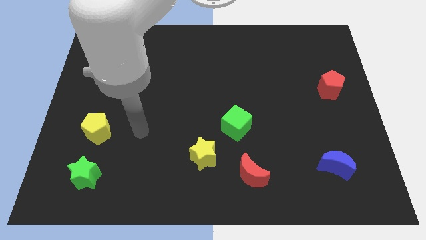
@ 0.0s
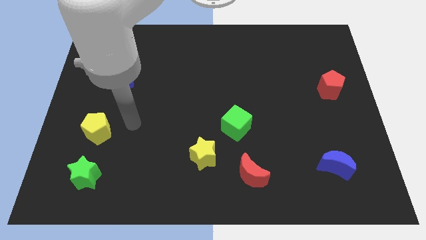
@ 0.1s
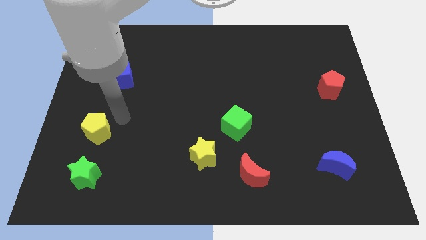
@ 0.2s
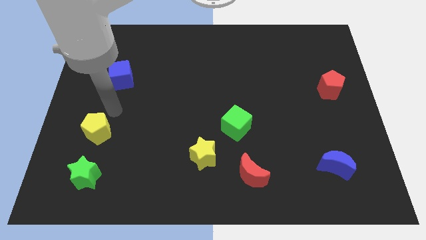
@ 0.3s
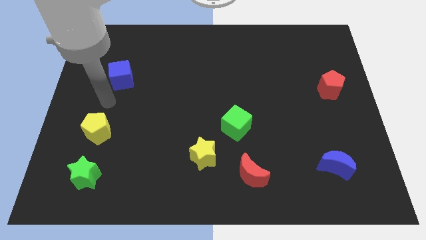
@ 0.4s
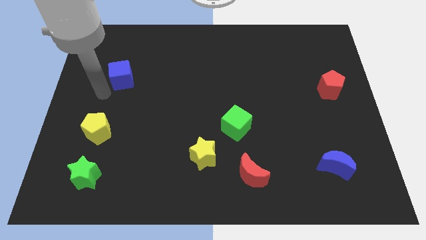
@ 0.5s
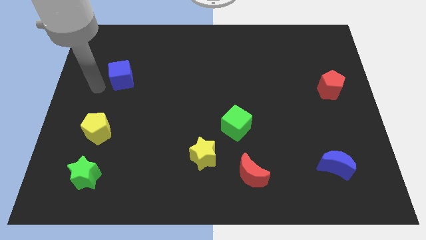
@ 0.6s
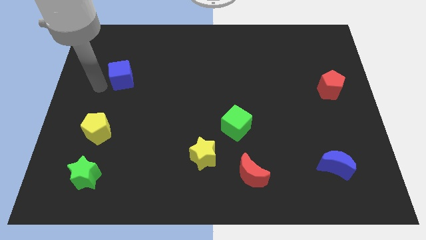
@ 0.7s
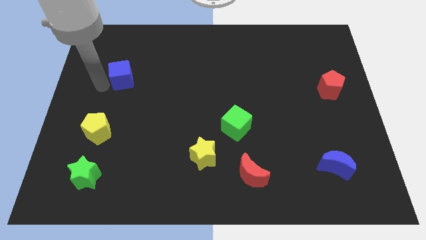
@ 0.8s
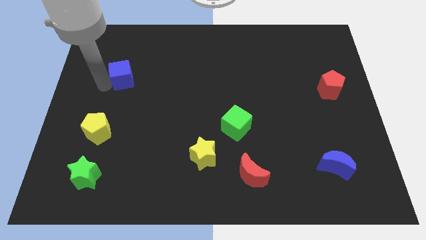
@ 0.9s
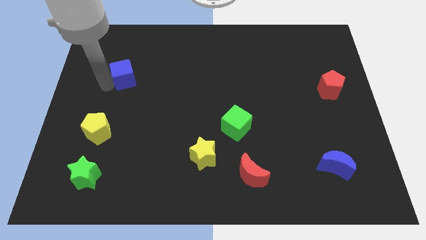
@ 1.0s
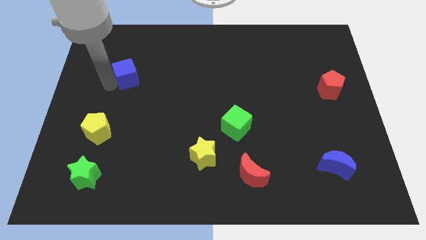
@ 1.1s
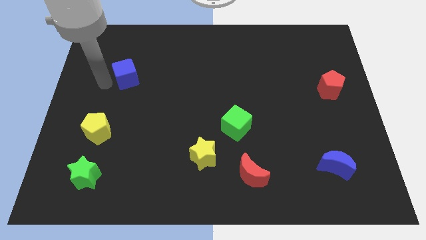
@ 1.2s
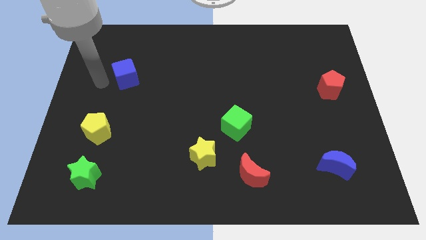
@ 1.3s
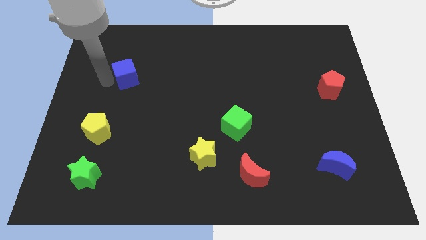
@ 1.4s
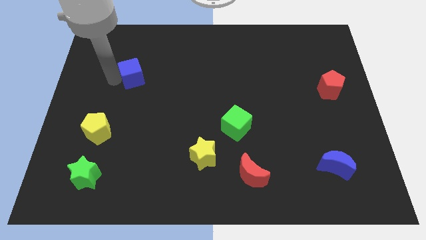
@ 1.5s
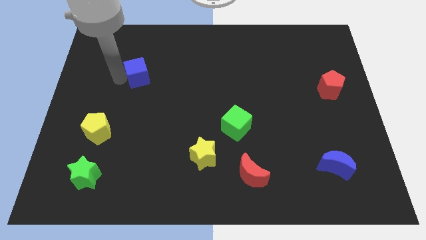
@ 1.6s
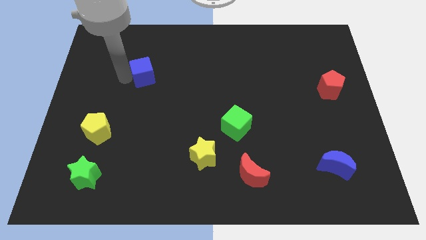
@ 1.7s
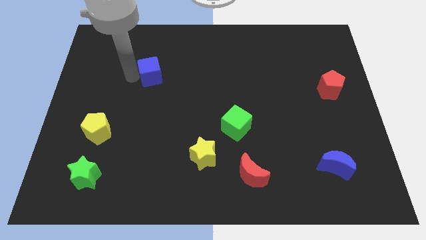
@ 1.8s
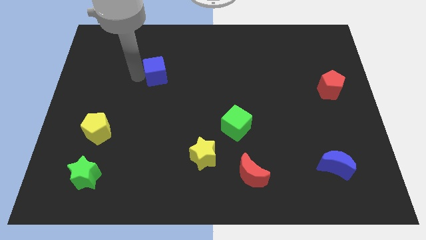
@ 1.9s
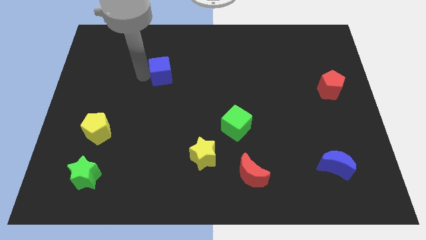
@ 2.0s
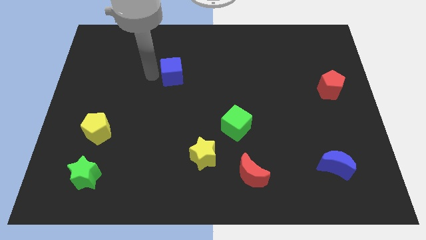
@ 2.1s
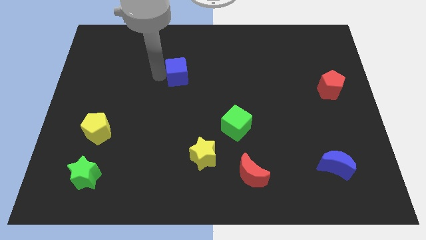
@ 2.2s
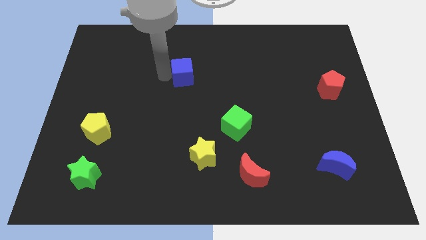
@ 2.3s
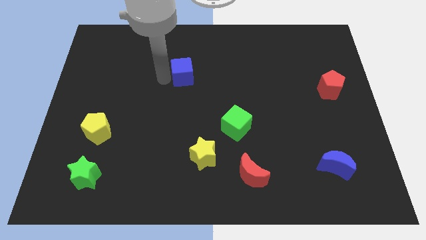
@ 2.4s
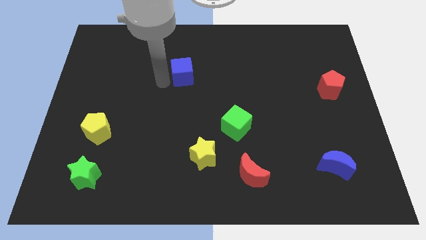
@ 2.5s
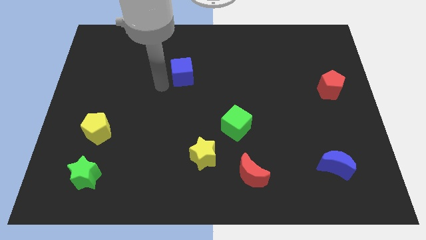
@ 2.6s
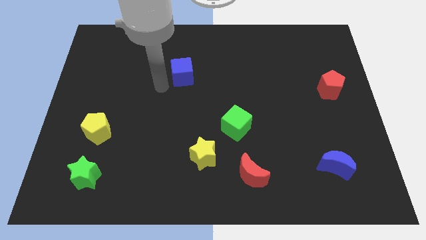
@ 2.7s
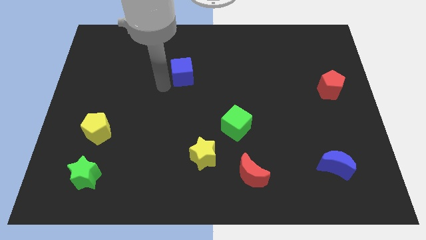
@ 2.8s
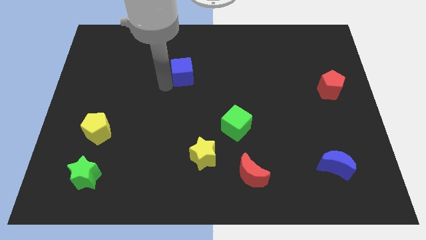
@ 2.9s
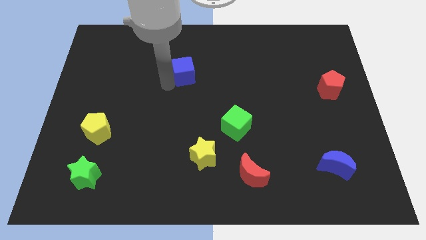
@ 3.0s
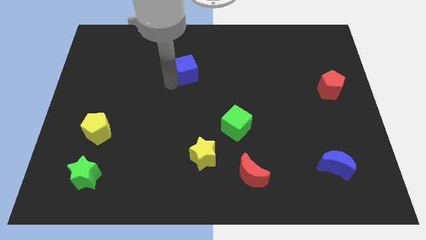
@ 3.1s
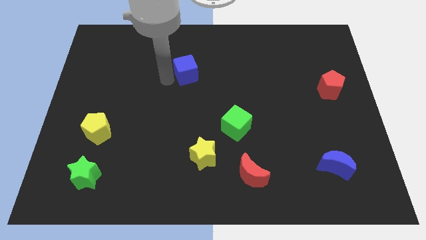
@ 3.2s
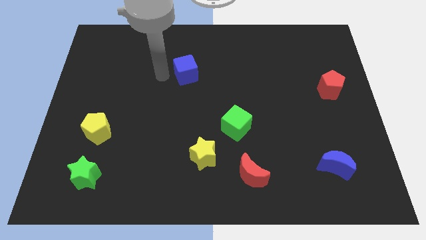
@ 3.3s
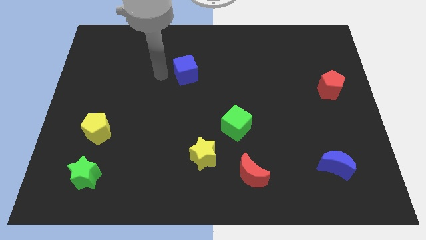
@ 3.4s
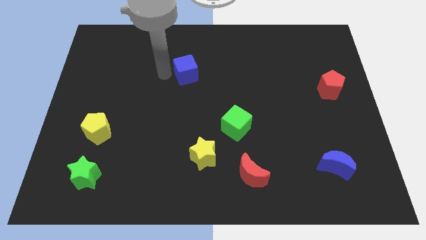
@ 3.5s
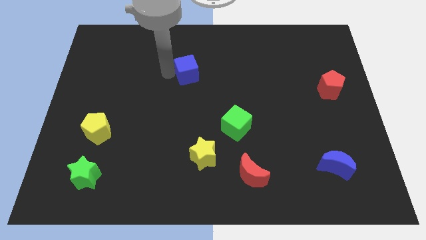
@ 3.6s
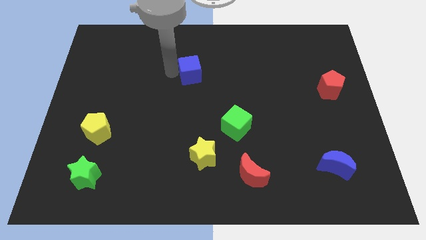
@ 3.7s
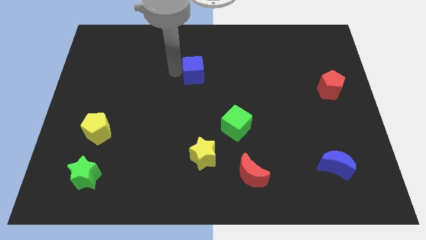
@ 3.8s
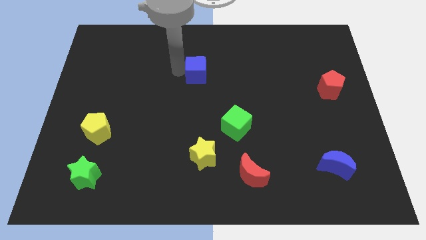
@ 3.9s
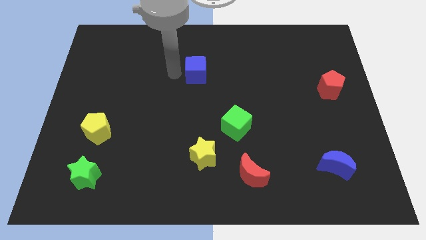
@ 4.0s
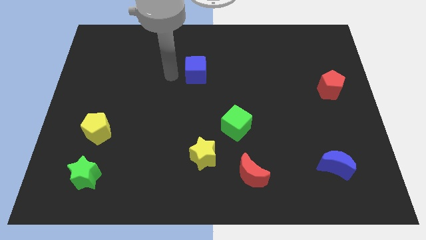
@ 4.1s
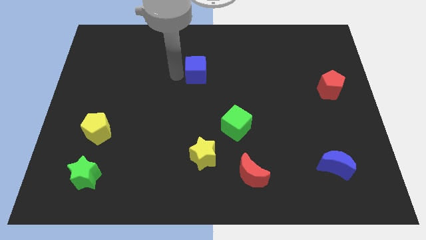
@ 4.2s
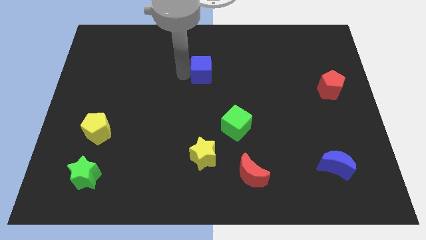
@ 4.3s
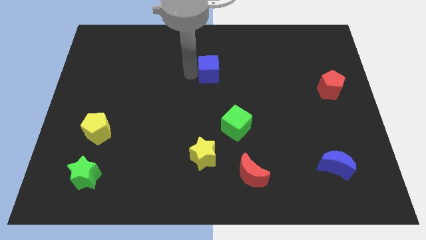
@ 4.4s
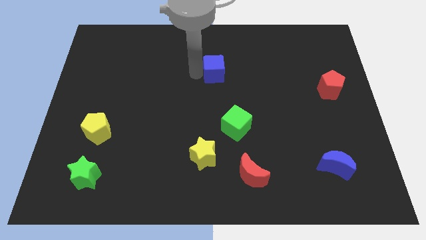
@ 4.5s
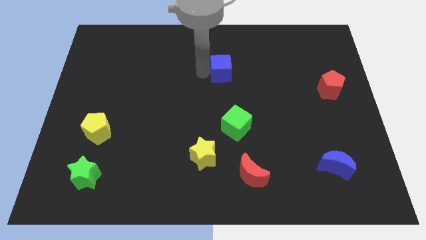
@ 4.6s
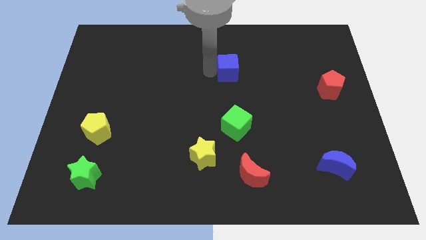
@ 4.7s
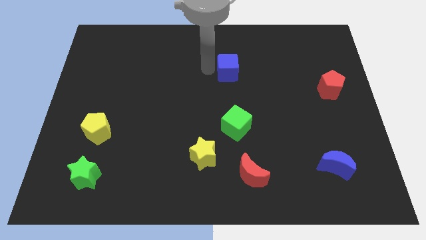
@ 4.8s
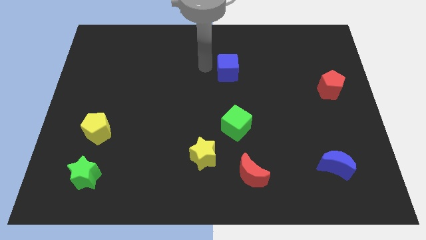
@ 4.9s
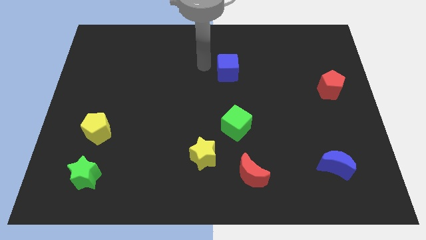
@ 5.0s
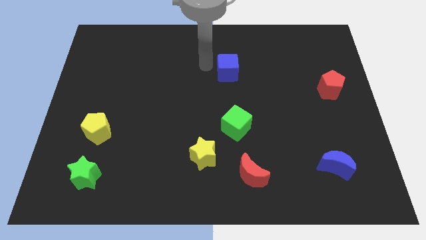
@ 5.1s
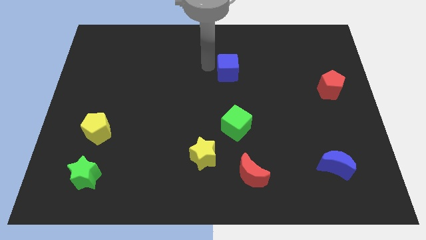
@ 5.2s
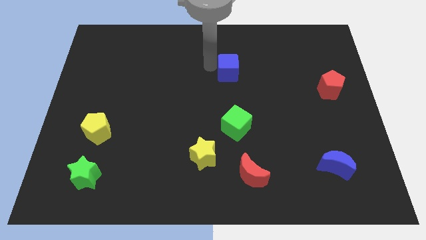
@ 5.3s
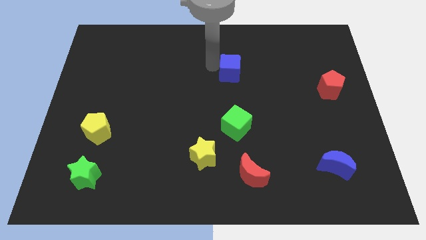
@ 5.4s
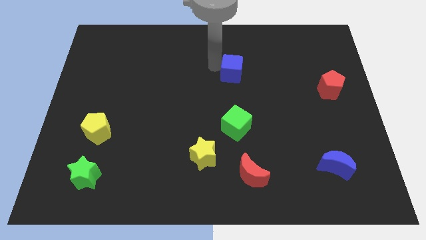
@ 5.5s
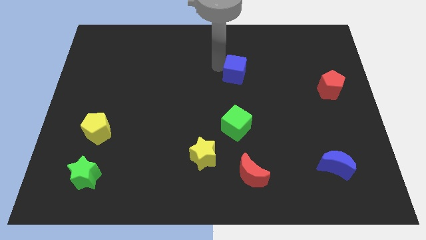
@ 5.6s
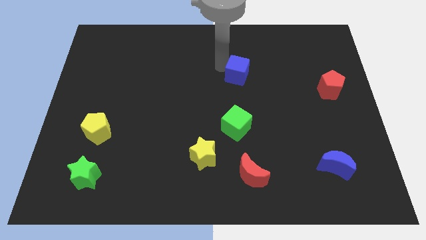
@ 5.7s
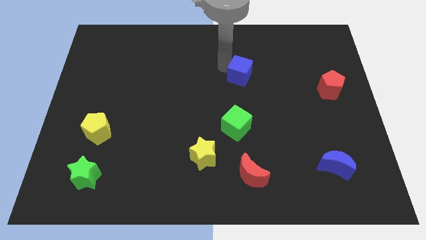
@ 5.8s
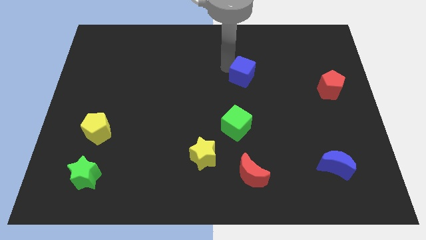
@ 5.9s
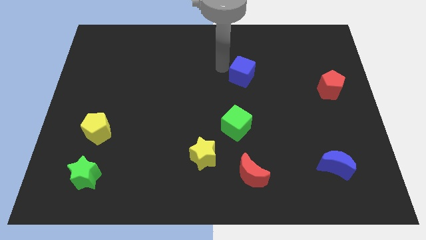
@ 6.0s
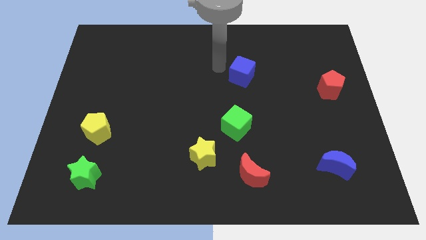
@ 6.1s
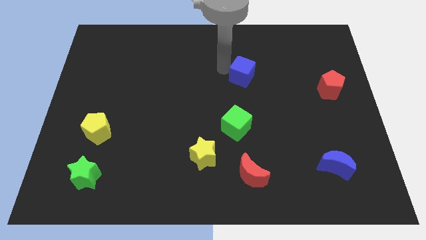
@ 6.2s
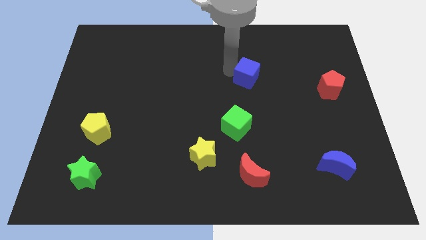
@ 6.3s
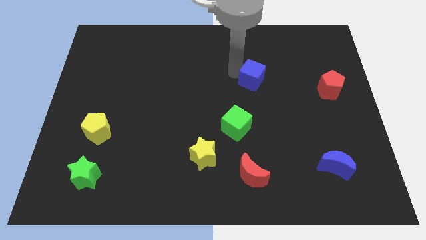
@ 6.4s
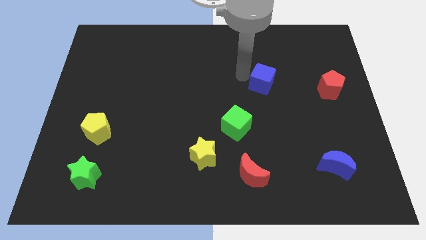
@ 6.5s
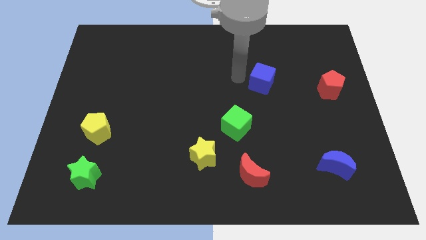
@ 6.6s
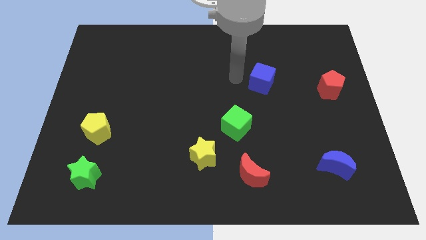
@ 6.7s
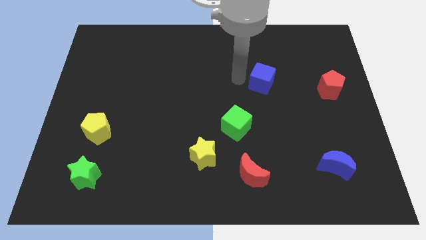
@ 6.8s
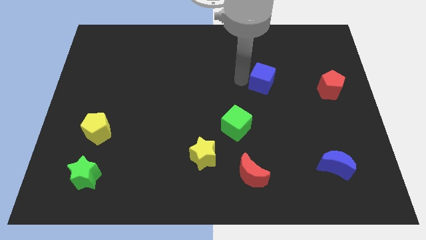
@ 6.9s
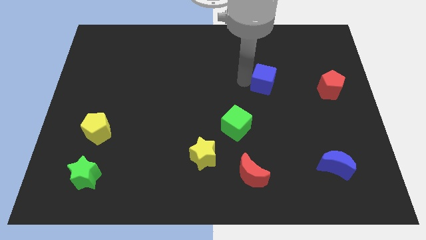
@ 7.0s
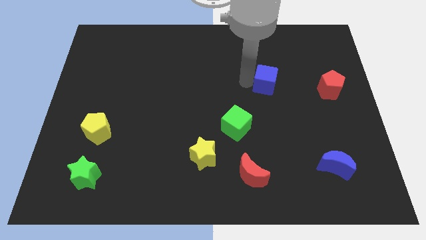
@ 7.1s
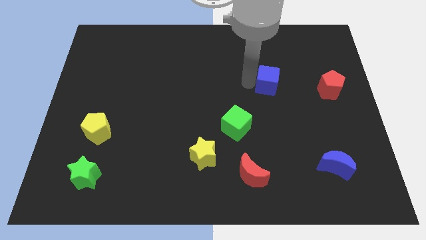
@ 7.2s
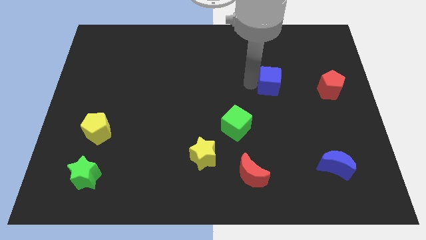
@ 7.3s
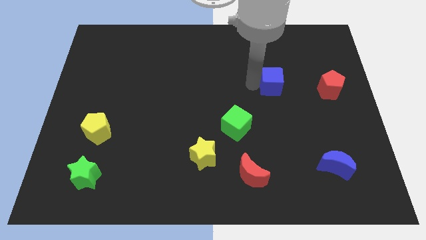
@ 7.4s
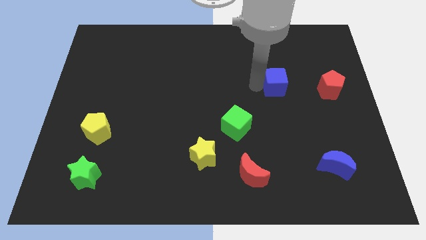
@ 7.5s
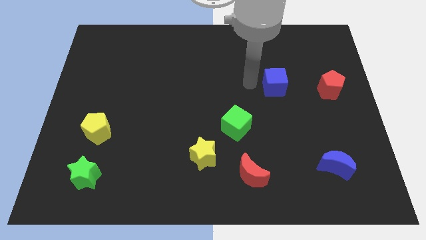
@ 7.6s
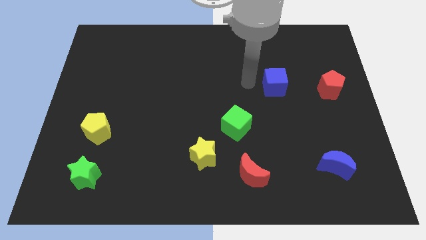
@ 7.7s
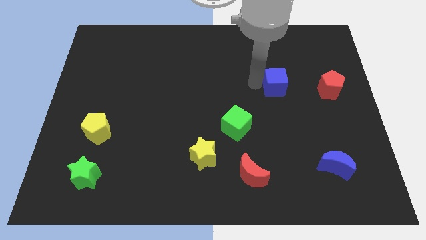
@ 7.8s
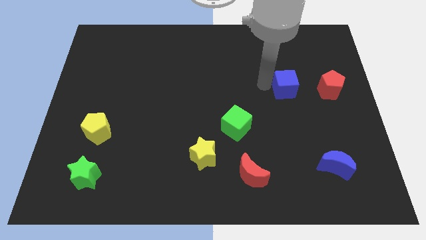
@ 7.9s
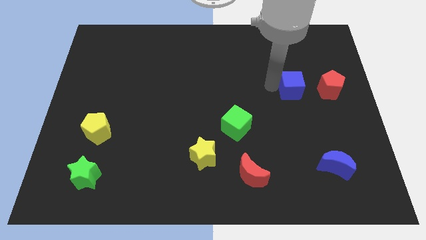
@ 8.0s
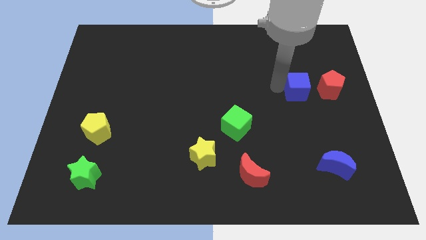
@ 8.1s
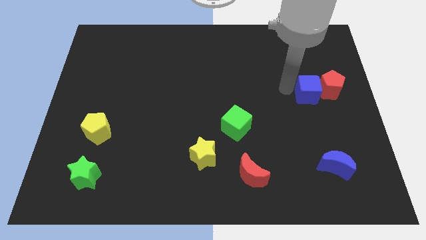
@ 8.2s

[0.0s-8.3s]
push the blue cube towards the red pentagon
